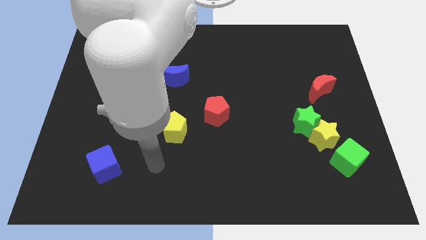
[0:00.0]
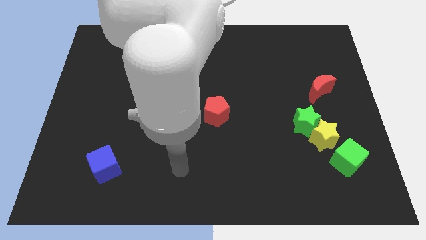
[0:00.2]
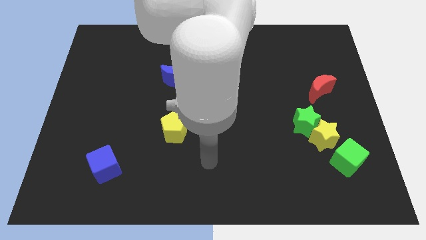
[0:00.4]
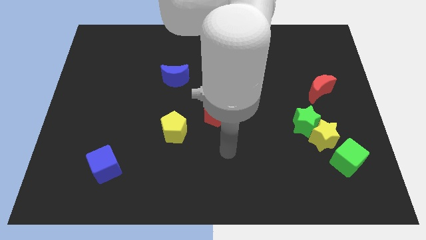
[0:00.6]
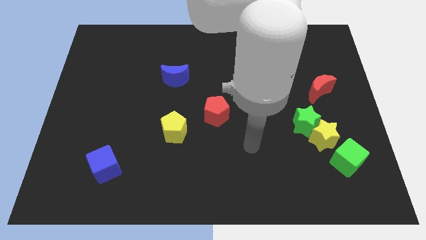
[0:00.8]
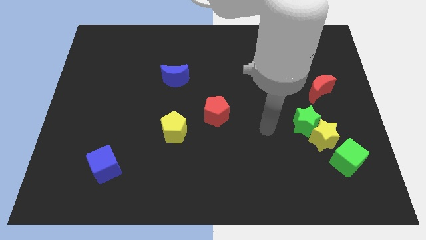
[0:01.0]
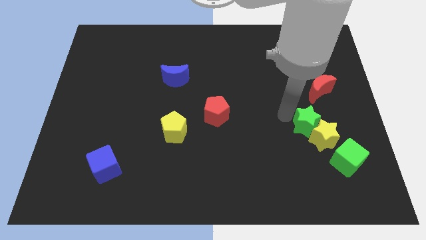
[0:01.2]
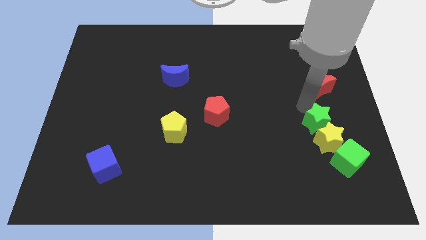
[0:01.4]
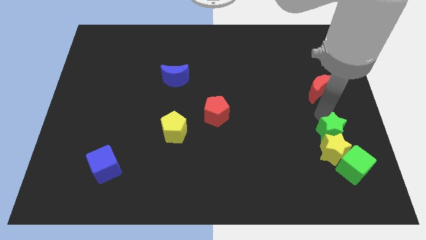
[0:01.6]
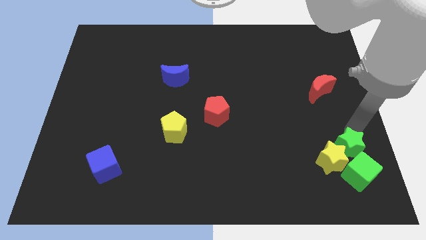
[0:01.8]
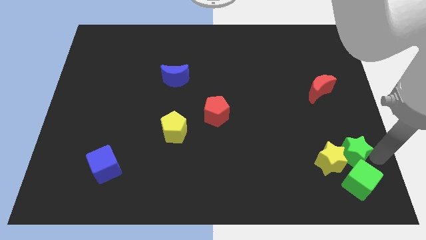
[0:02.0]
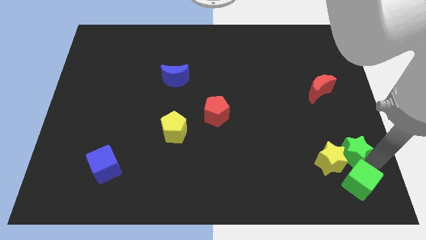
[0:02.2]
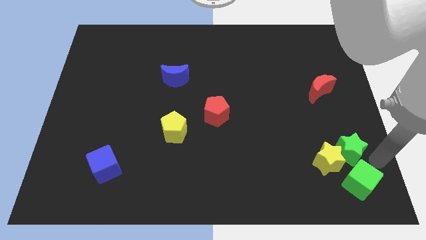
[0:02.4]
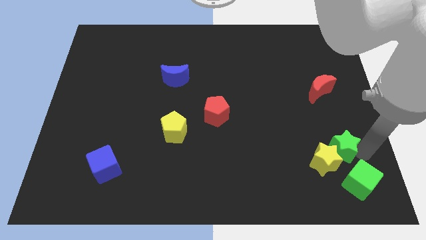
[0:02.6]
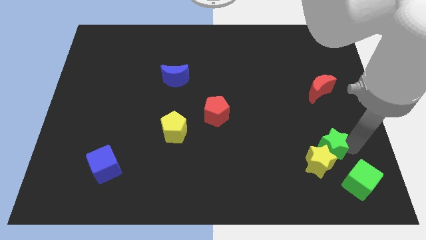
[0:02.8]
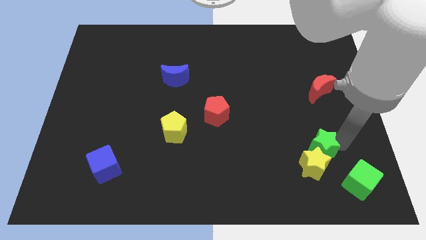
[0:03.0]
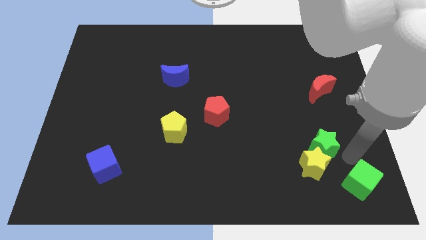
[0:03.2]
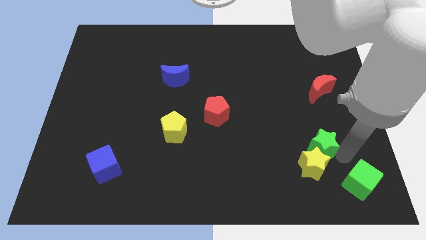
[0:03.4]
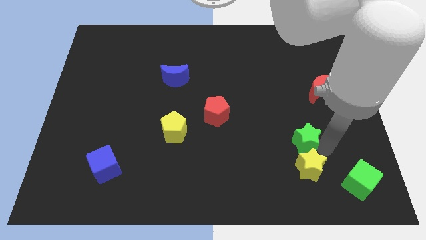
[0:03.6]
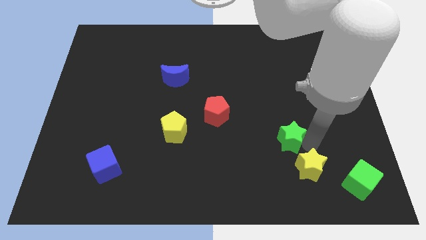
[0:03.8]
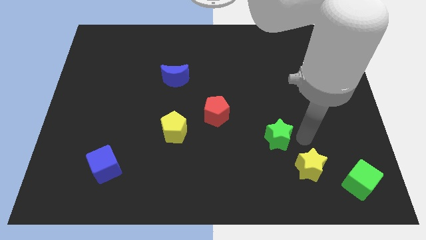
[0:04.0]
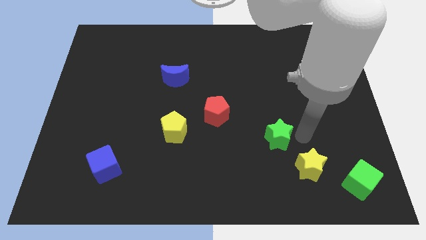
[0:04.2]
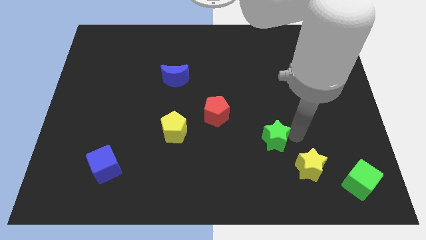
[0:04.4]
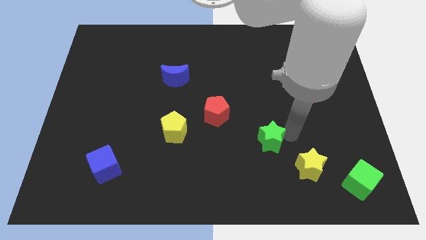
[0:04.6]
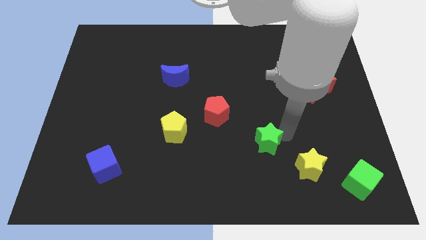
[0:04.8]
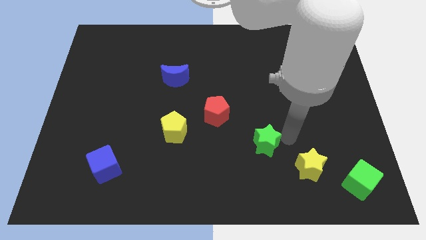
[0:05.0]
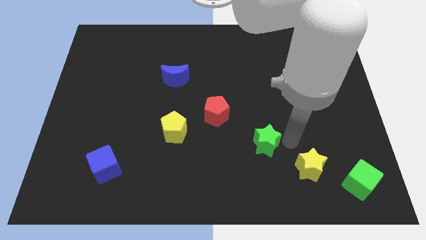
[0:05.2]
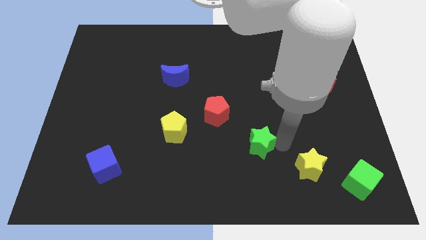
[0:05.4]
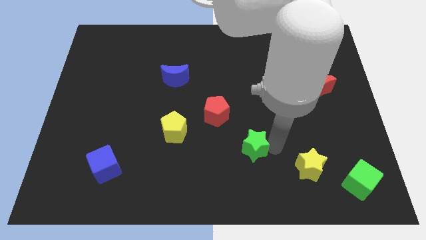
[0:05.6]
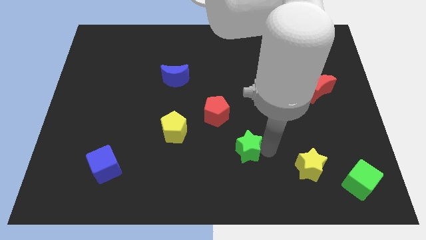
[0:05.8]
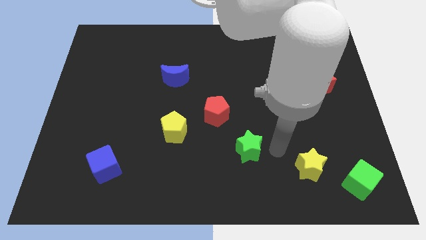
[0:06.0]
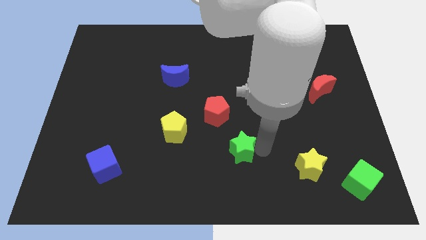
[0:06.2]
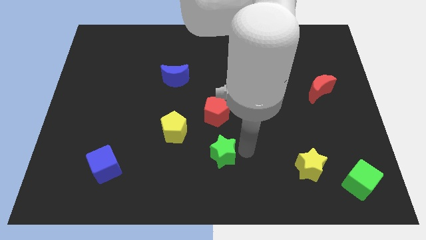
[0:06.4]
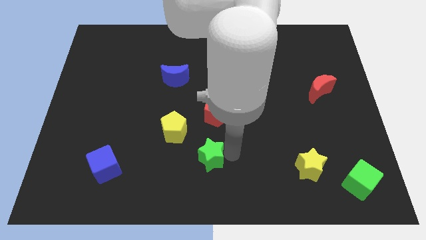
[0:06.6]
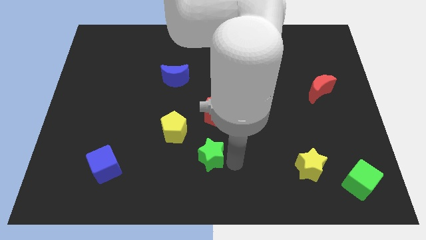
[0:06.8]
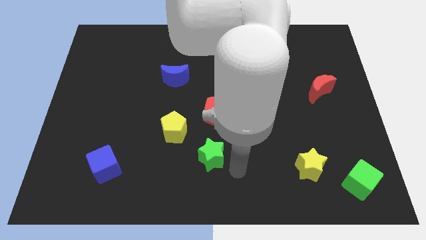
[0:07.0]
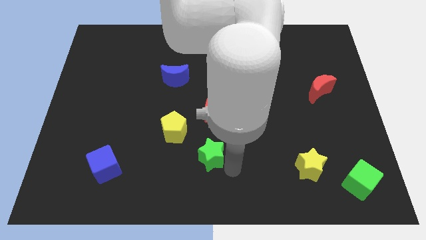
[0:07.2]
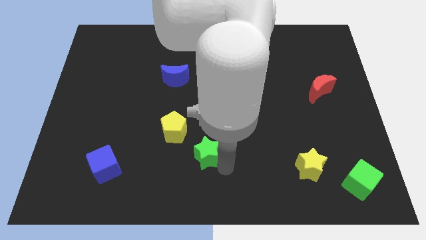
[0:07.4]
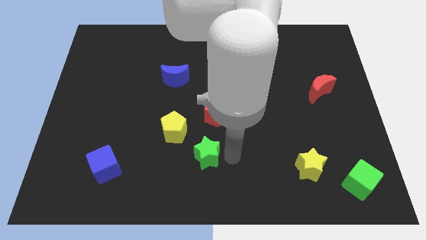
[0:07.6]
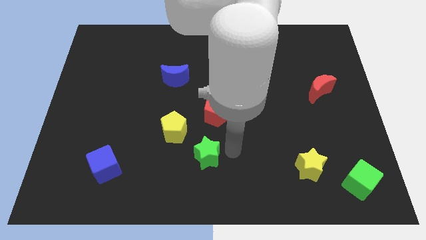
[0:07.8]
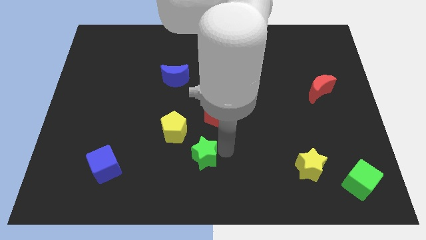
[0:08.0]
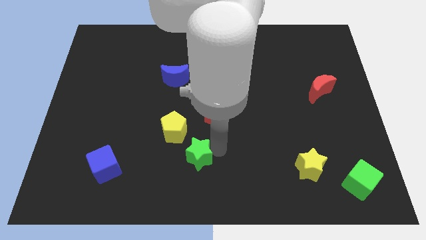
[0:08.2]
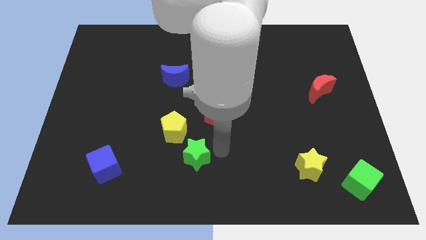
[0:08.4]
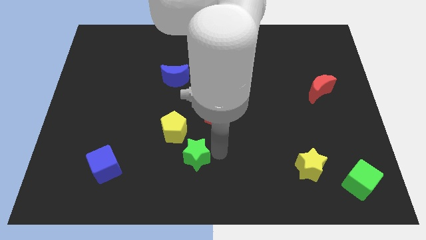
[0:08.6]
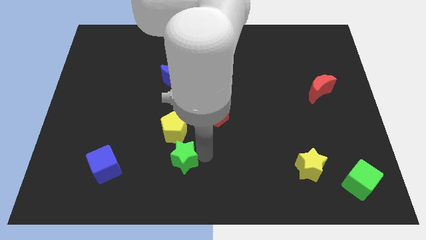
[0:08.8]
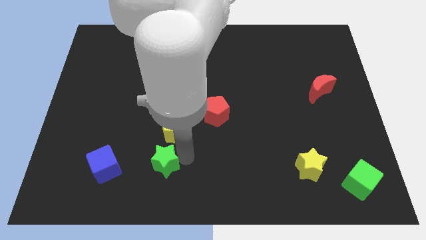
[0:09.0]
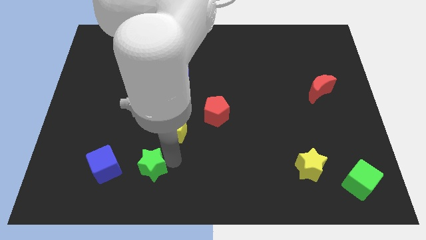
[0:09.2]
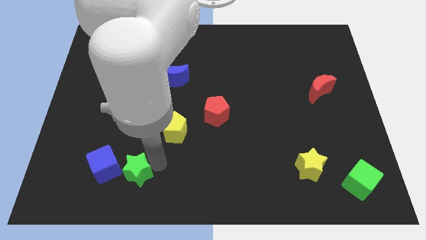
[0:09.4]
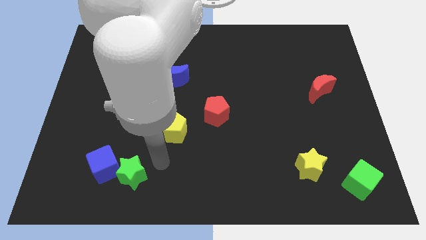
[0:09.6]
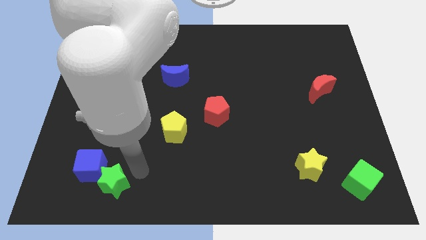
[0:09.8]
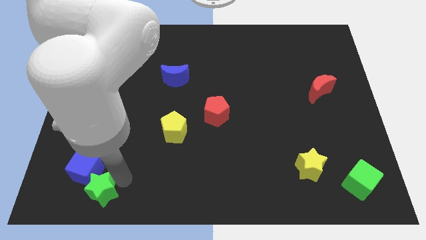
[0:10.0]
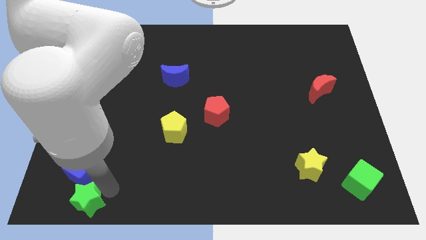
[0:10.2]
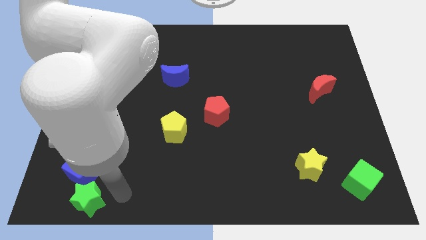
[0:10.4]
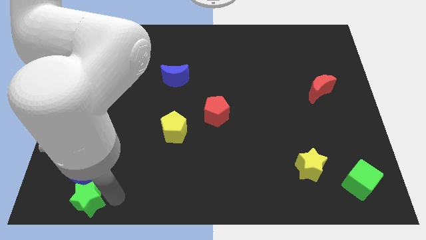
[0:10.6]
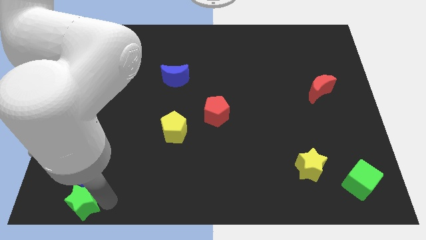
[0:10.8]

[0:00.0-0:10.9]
slide the green star to the bottom left
